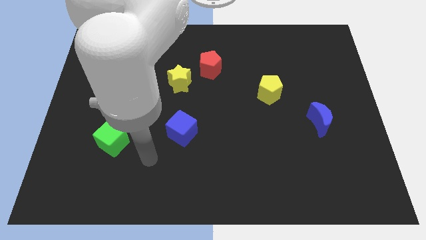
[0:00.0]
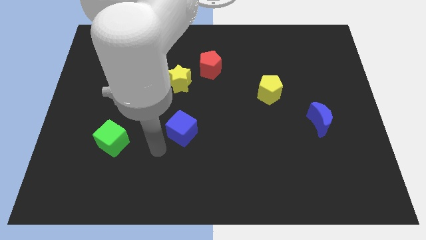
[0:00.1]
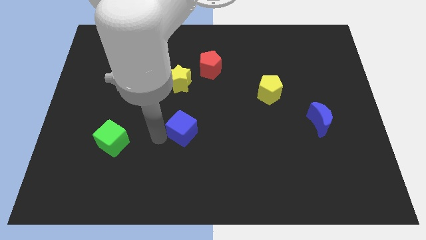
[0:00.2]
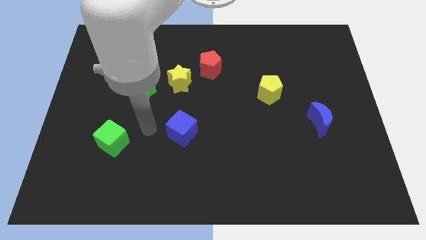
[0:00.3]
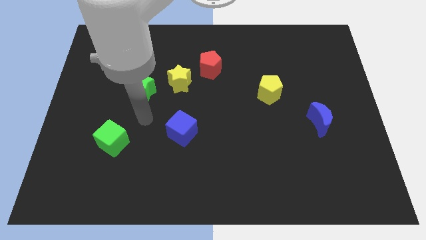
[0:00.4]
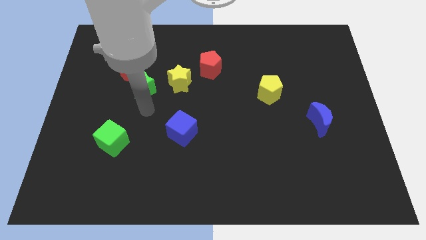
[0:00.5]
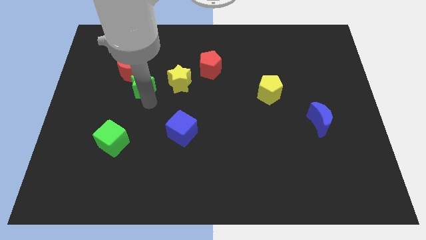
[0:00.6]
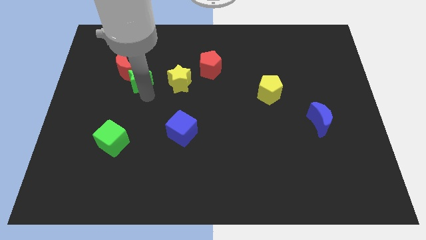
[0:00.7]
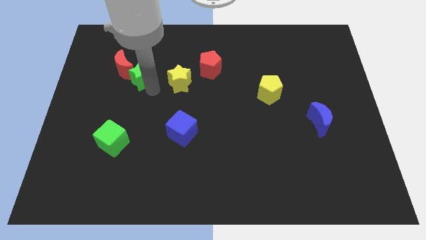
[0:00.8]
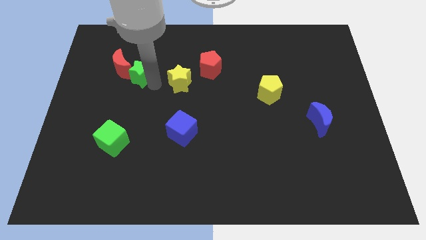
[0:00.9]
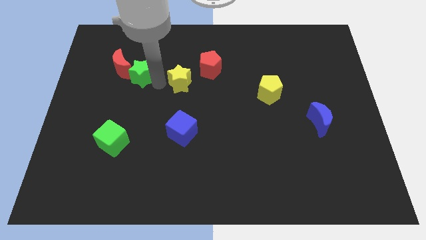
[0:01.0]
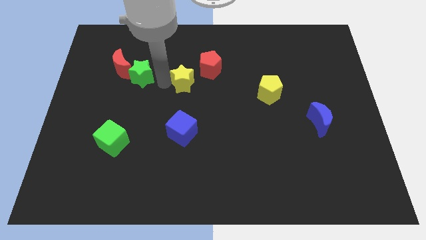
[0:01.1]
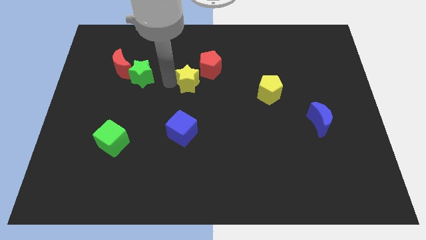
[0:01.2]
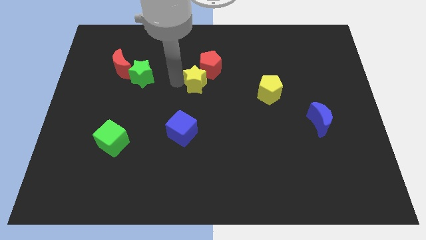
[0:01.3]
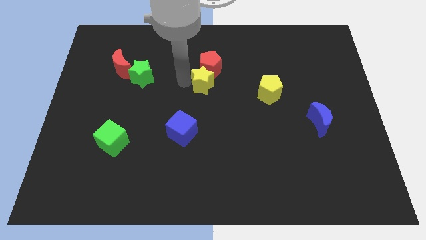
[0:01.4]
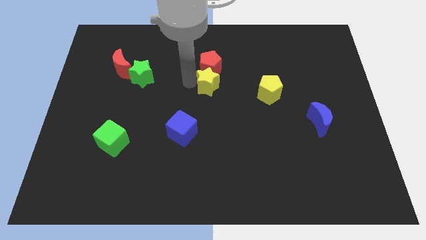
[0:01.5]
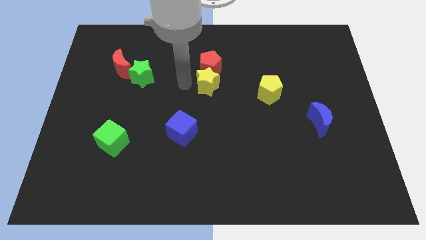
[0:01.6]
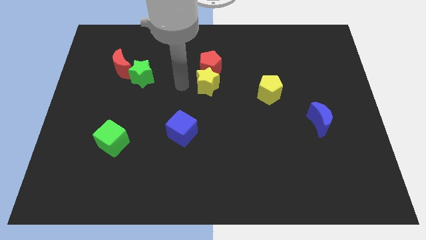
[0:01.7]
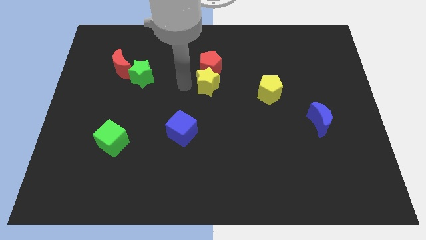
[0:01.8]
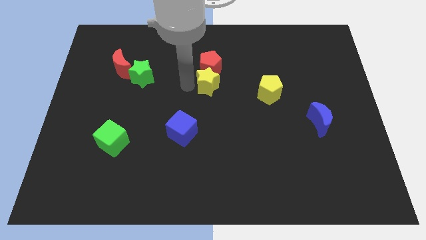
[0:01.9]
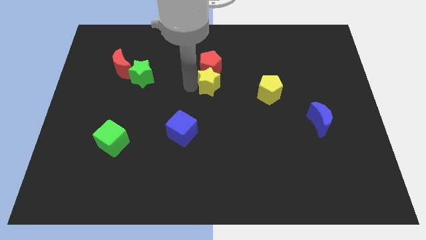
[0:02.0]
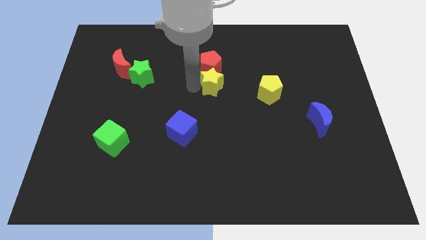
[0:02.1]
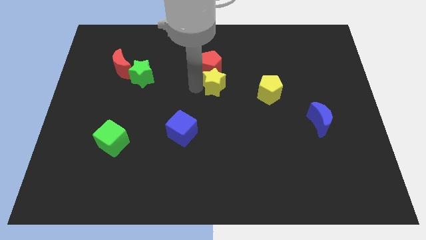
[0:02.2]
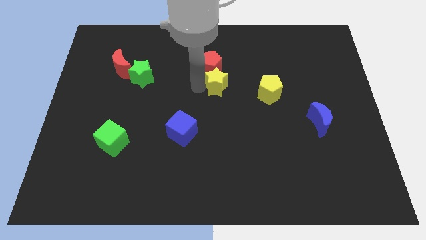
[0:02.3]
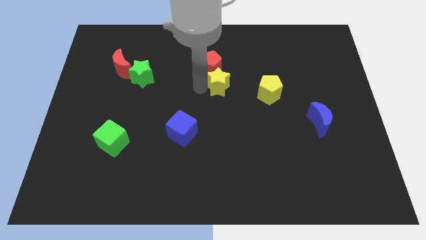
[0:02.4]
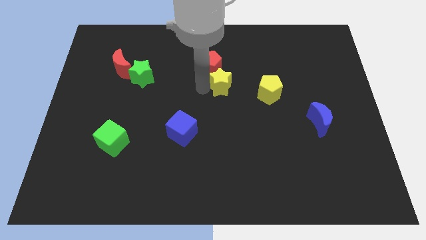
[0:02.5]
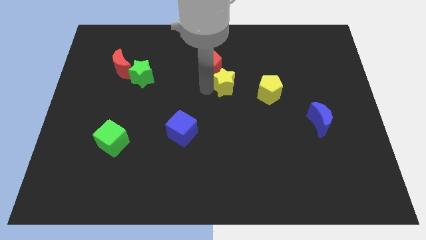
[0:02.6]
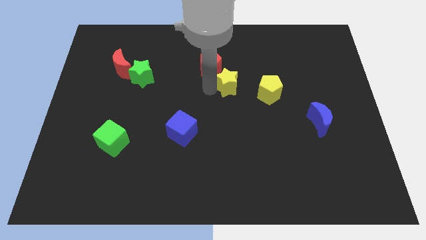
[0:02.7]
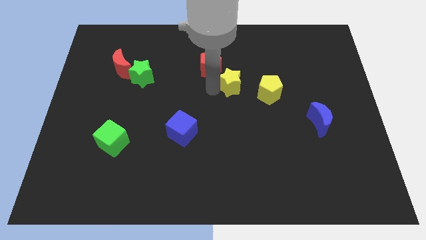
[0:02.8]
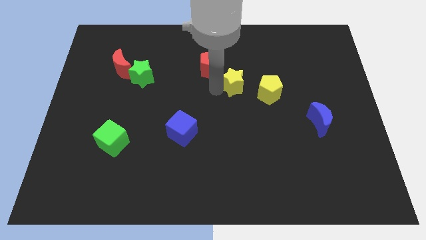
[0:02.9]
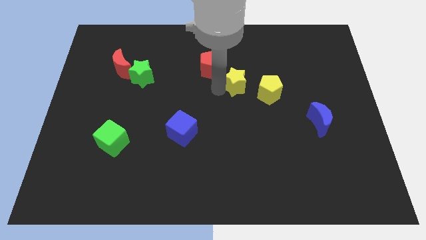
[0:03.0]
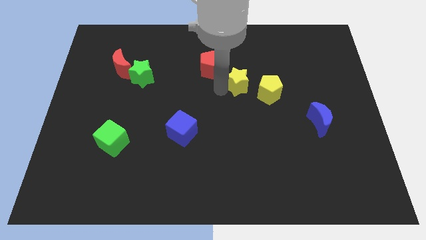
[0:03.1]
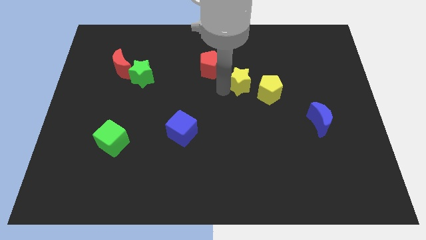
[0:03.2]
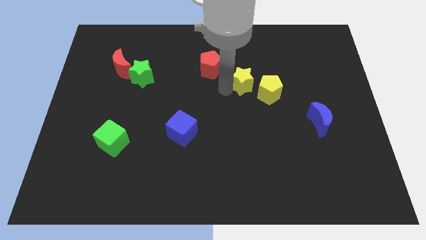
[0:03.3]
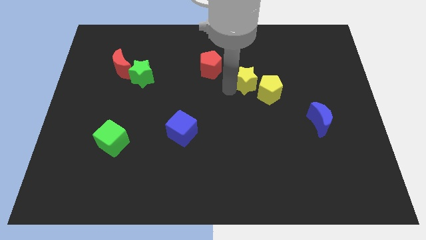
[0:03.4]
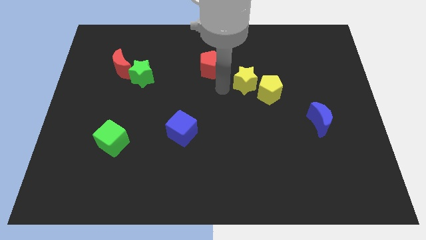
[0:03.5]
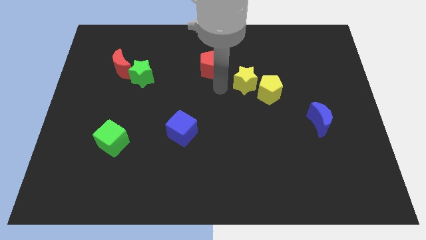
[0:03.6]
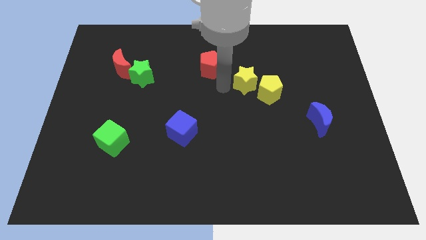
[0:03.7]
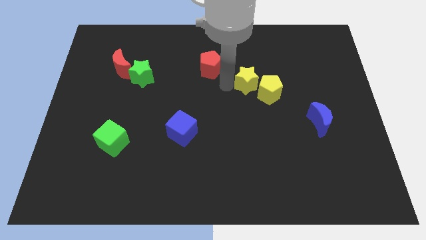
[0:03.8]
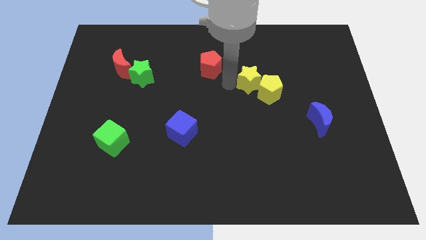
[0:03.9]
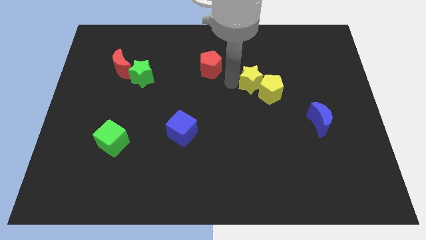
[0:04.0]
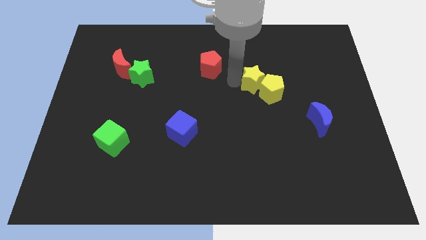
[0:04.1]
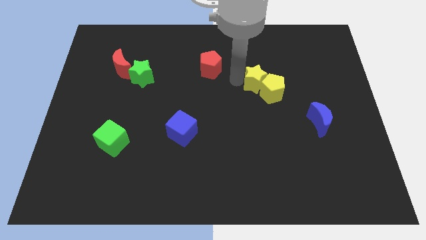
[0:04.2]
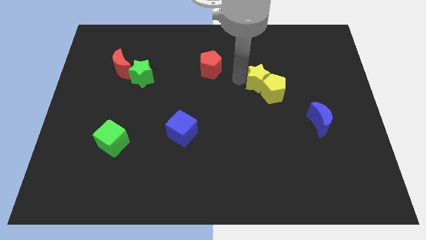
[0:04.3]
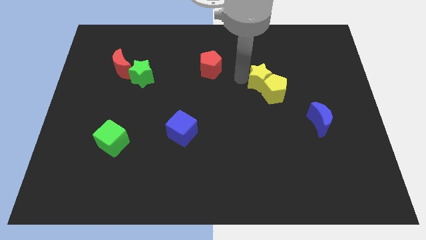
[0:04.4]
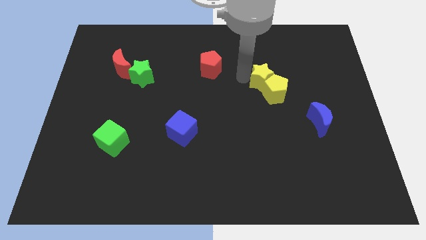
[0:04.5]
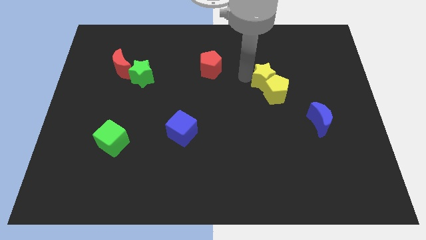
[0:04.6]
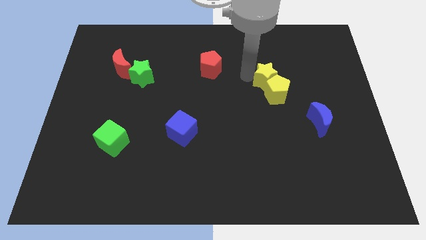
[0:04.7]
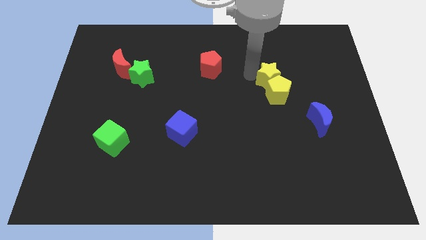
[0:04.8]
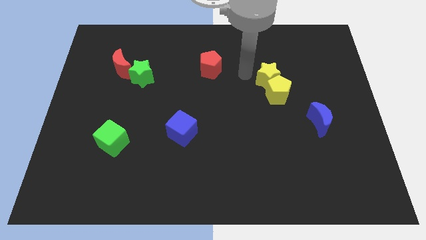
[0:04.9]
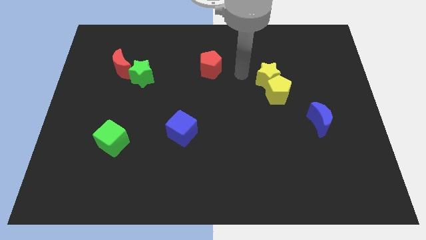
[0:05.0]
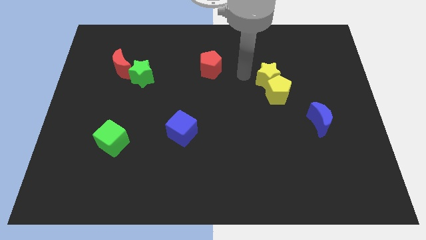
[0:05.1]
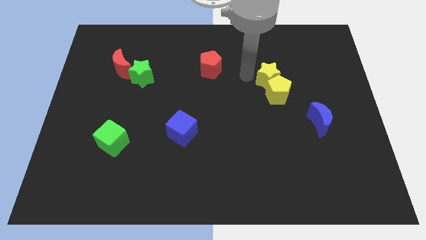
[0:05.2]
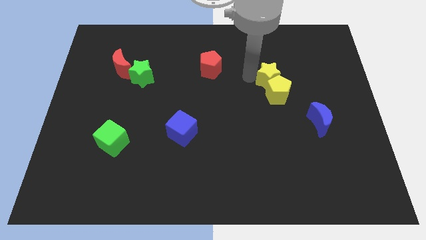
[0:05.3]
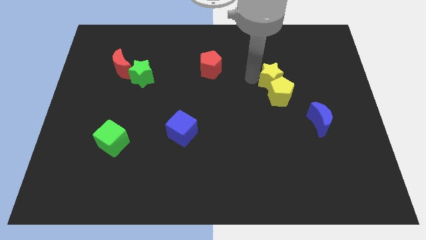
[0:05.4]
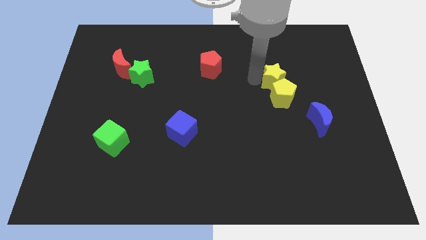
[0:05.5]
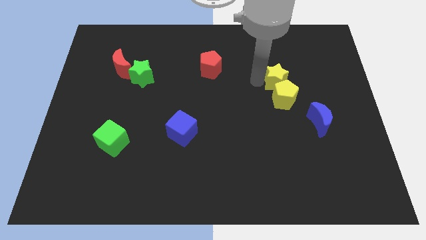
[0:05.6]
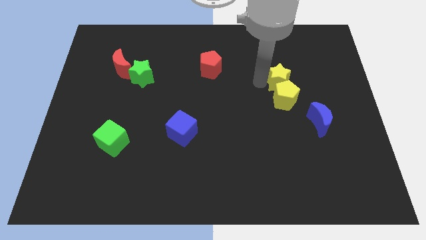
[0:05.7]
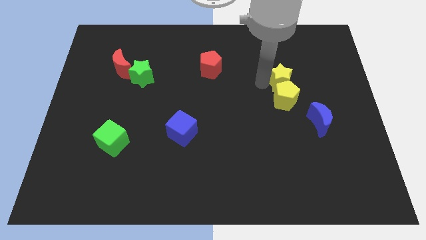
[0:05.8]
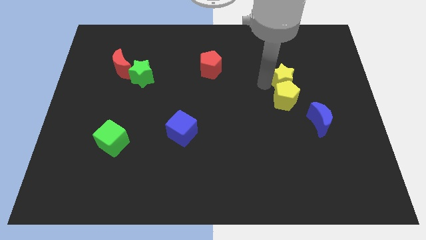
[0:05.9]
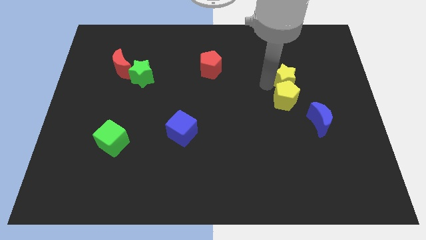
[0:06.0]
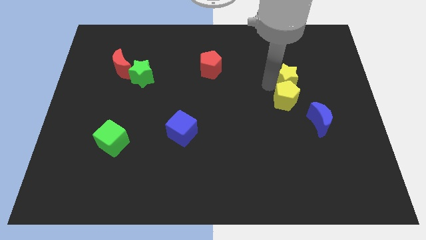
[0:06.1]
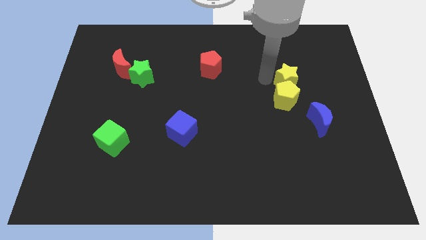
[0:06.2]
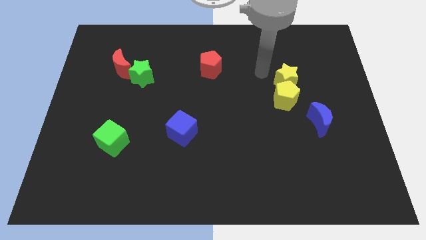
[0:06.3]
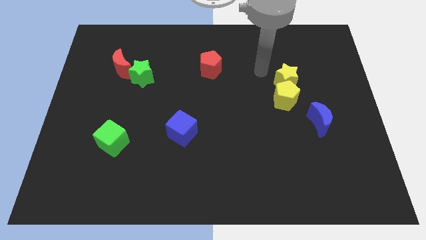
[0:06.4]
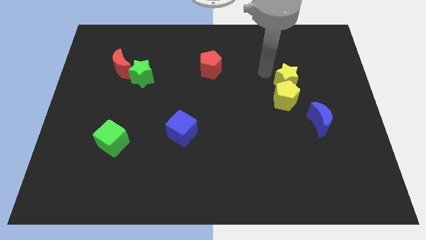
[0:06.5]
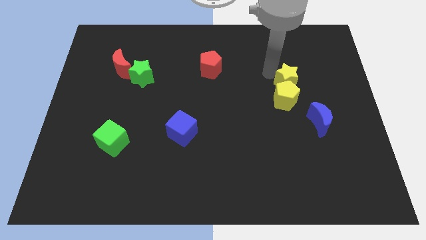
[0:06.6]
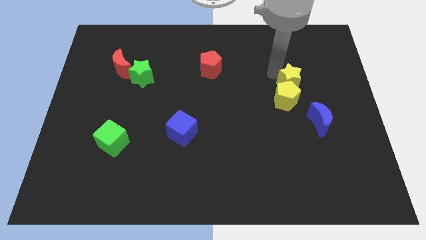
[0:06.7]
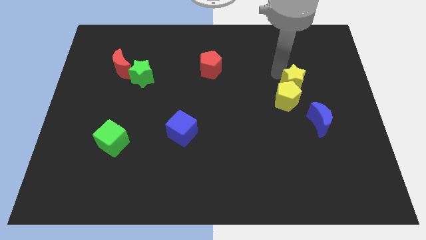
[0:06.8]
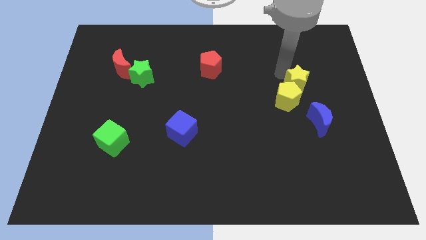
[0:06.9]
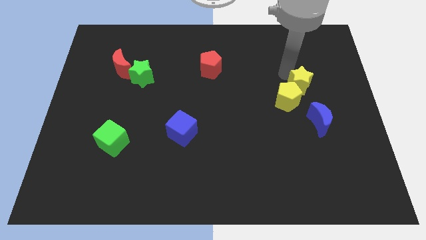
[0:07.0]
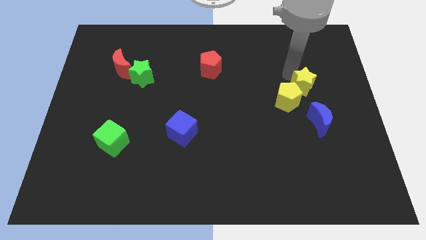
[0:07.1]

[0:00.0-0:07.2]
push the yellow star to the right side of the yellow pentagon

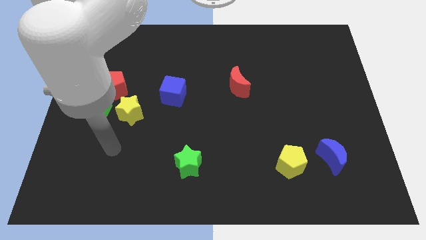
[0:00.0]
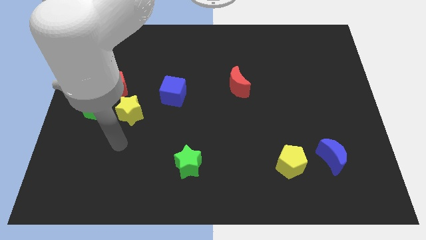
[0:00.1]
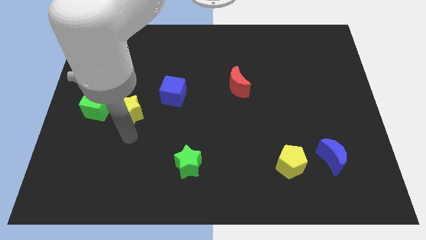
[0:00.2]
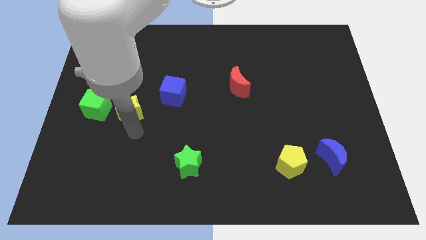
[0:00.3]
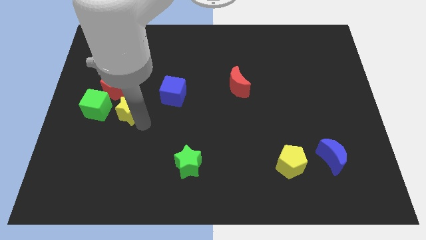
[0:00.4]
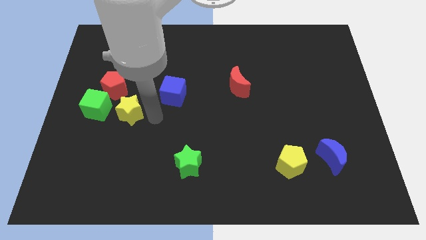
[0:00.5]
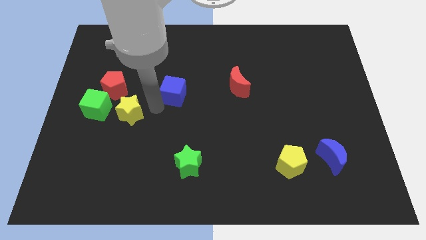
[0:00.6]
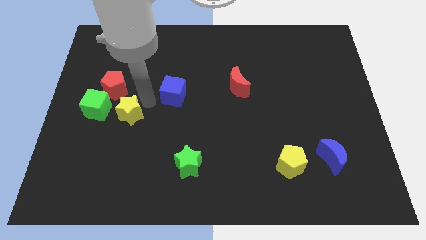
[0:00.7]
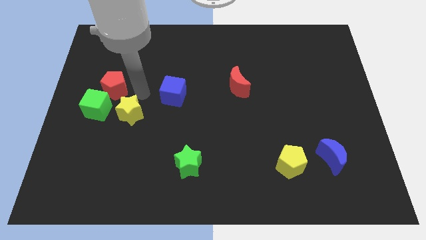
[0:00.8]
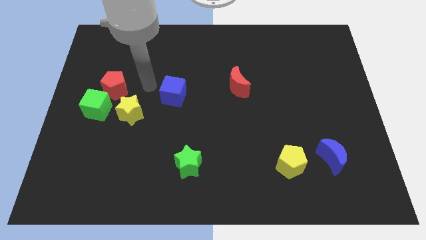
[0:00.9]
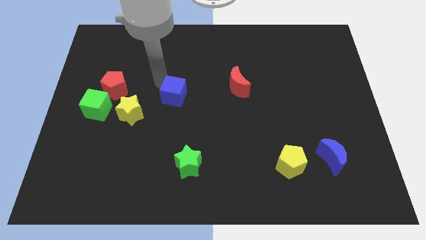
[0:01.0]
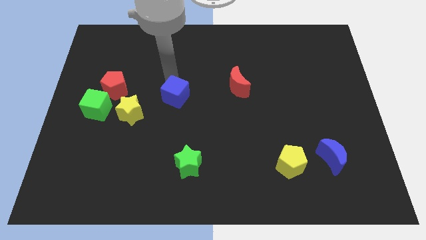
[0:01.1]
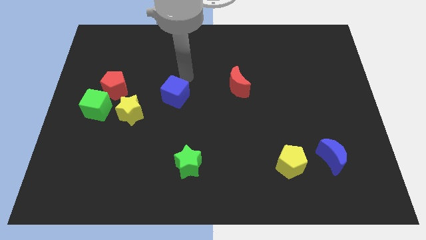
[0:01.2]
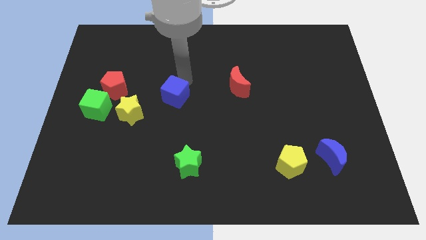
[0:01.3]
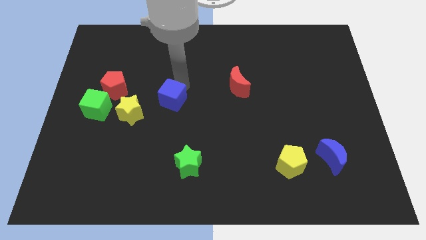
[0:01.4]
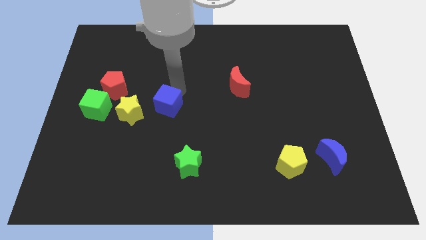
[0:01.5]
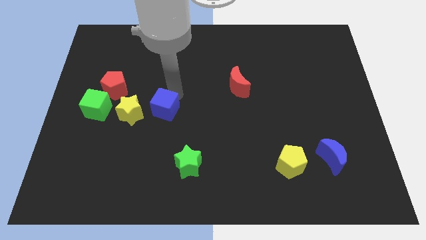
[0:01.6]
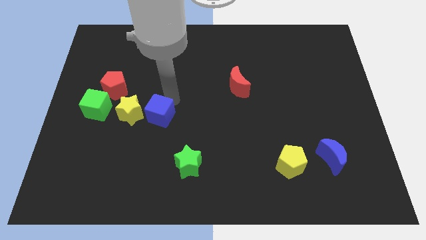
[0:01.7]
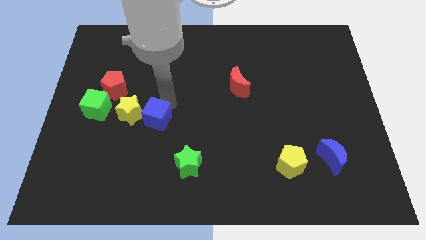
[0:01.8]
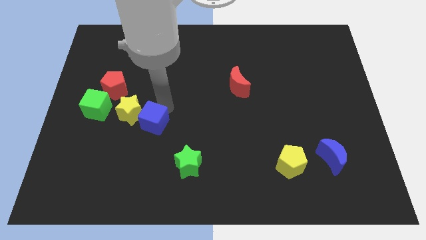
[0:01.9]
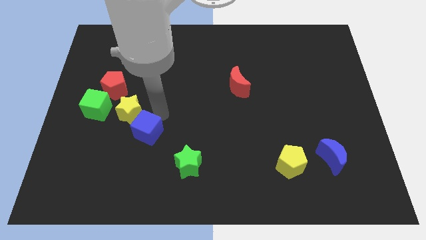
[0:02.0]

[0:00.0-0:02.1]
push the blue cube to the bottom side of the yellow star
